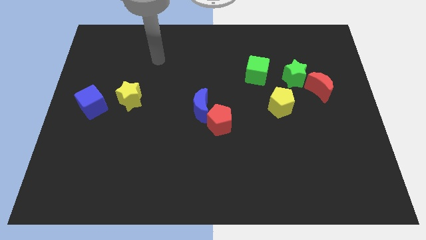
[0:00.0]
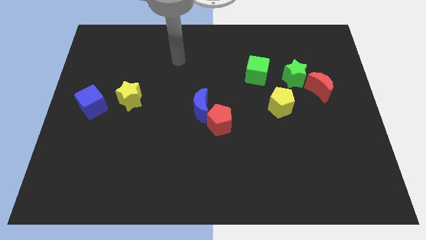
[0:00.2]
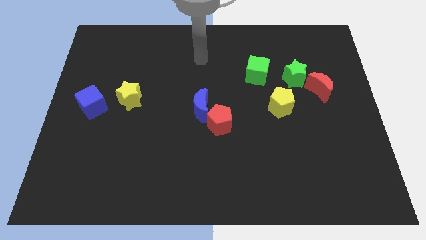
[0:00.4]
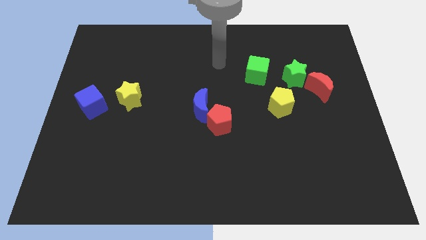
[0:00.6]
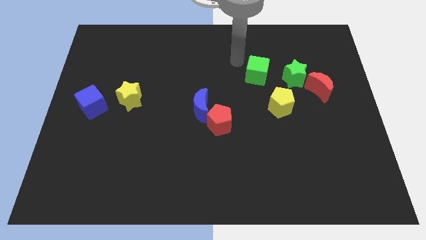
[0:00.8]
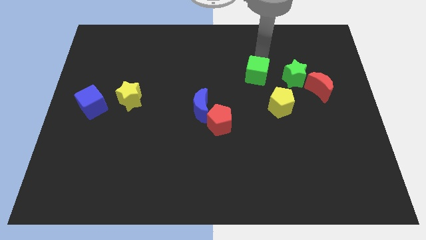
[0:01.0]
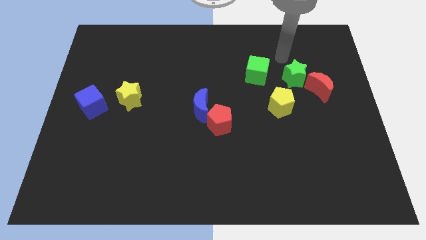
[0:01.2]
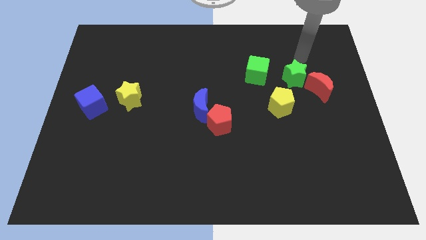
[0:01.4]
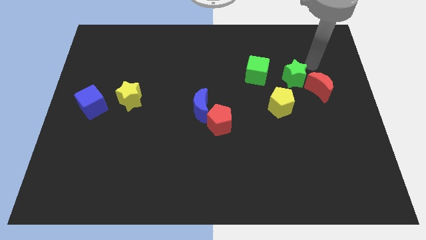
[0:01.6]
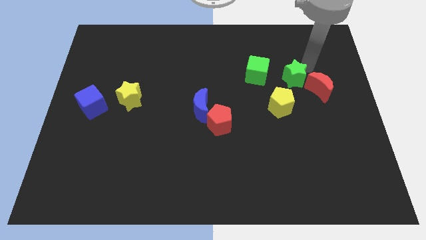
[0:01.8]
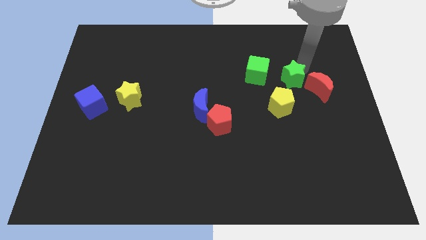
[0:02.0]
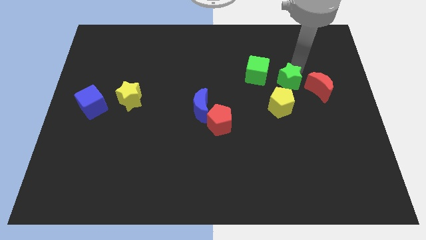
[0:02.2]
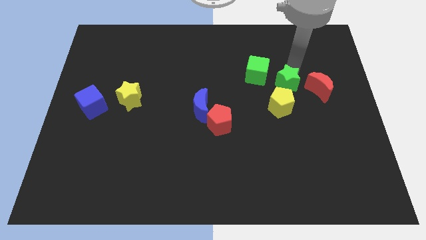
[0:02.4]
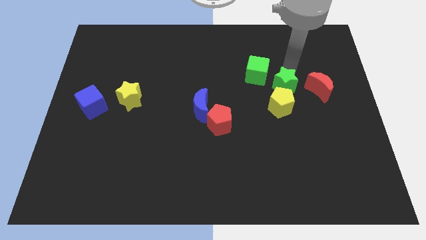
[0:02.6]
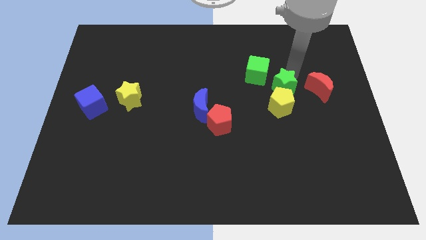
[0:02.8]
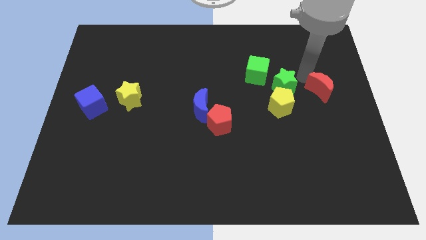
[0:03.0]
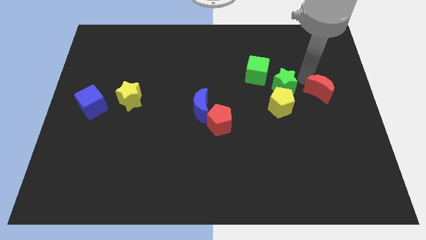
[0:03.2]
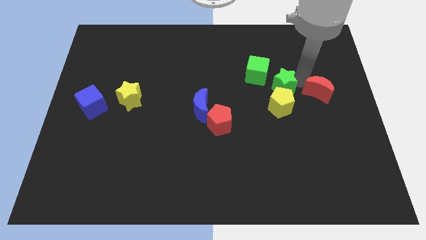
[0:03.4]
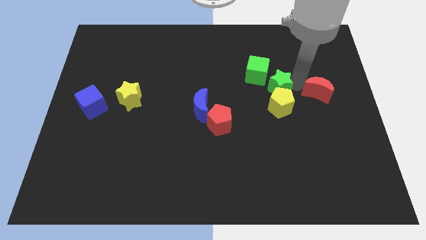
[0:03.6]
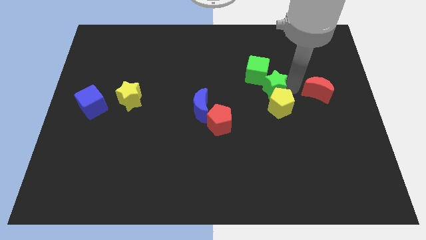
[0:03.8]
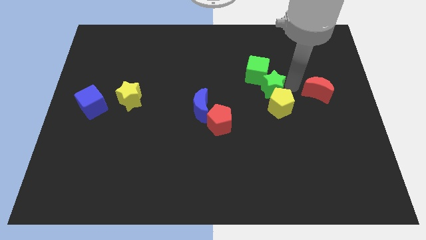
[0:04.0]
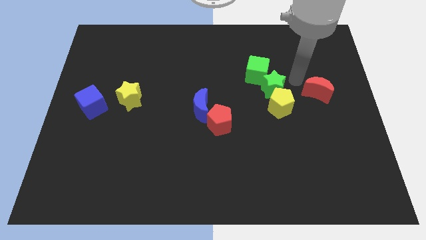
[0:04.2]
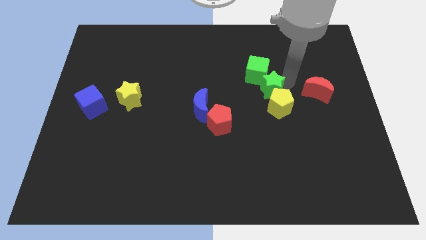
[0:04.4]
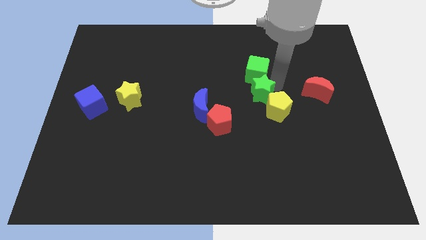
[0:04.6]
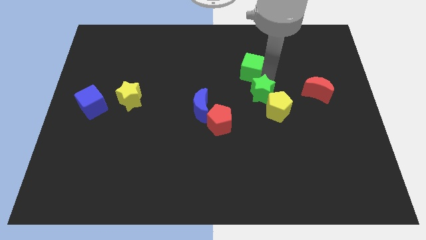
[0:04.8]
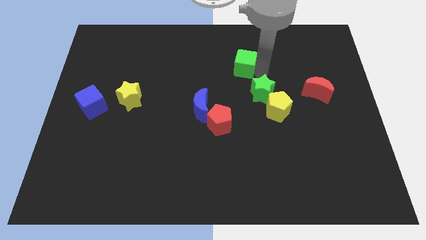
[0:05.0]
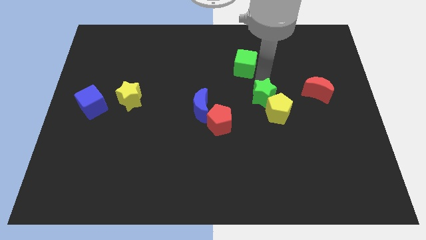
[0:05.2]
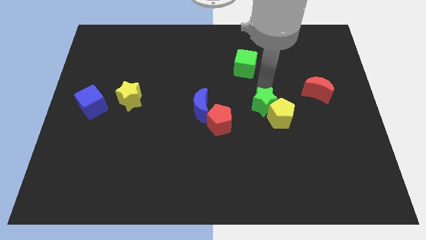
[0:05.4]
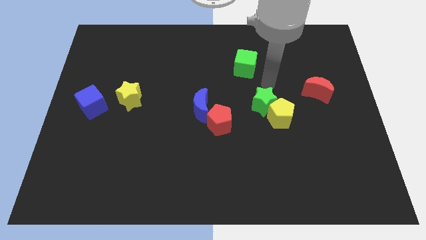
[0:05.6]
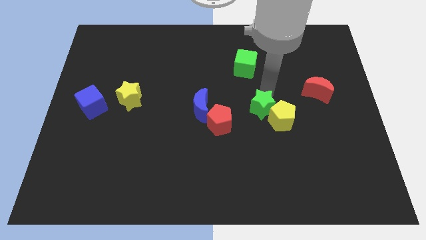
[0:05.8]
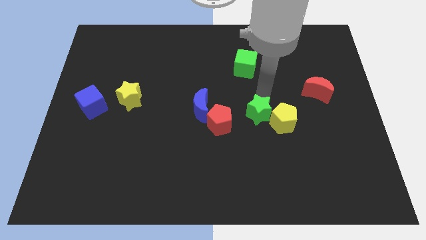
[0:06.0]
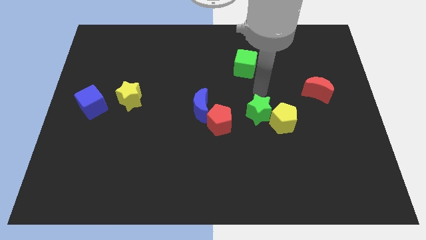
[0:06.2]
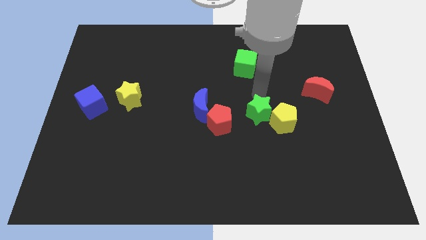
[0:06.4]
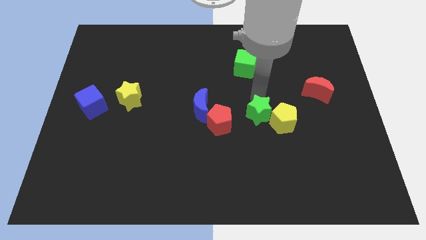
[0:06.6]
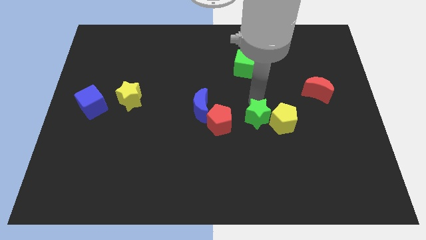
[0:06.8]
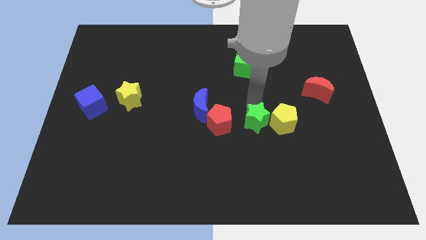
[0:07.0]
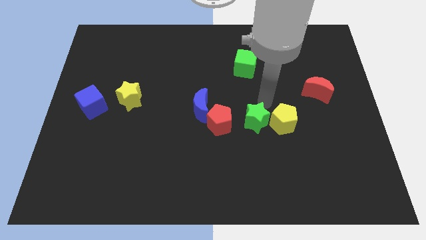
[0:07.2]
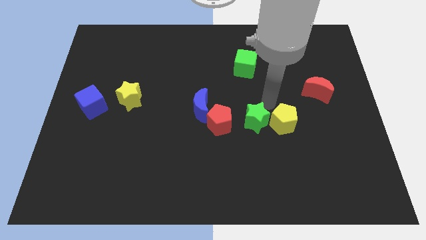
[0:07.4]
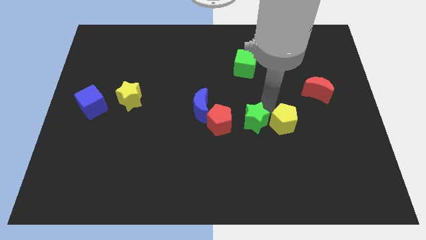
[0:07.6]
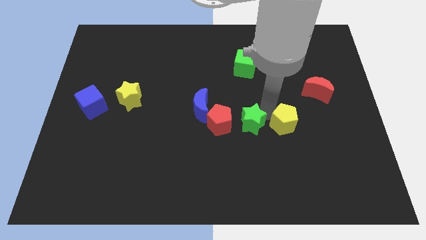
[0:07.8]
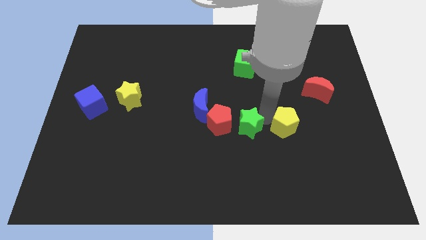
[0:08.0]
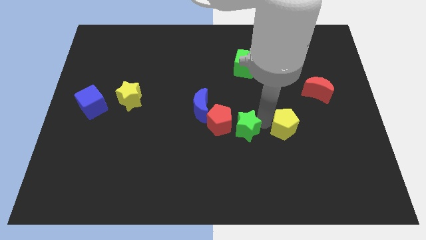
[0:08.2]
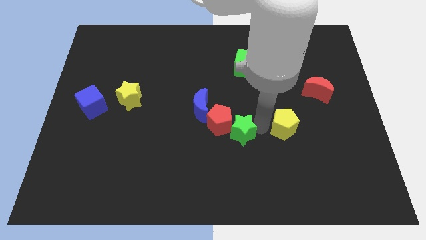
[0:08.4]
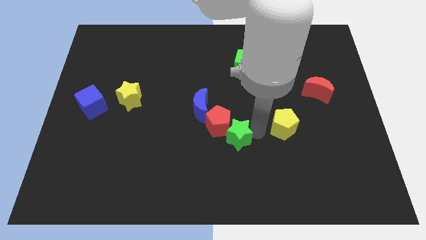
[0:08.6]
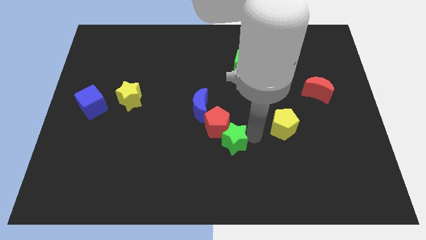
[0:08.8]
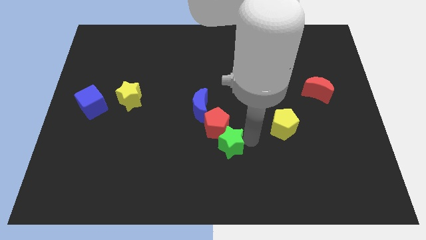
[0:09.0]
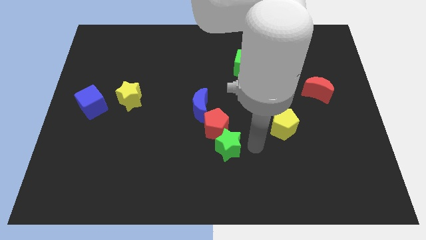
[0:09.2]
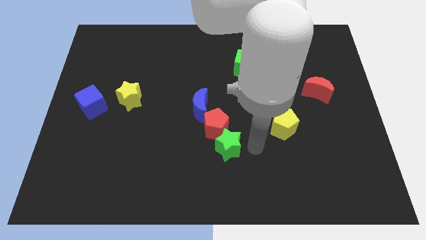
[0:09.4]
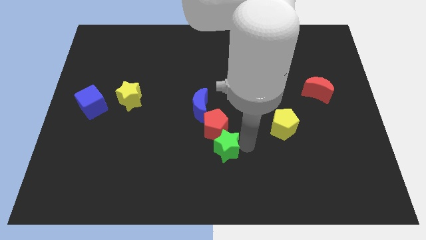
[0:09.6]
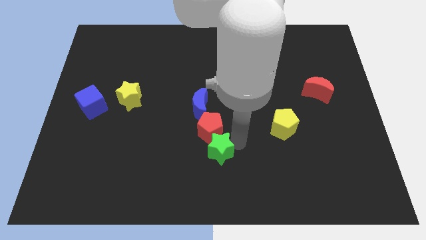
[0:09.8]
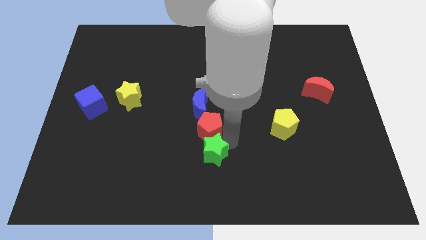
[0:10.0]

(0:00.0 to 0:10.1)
slide the green star diagonally down and to the left of the red pentagon

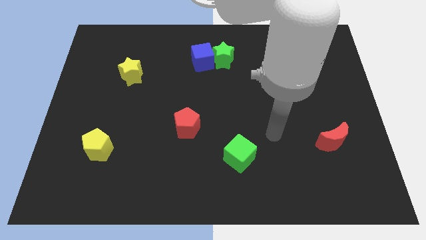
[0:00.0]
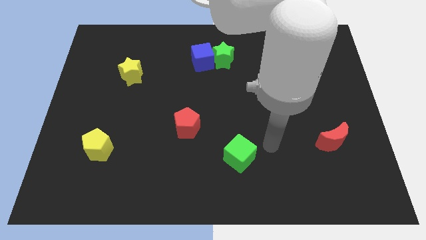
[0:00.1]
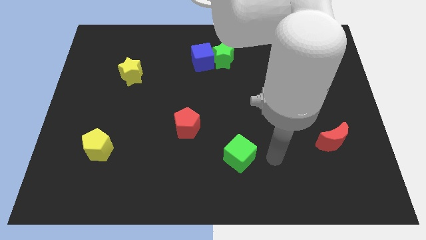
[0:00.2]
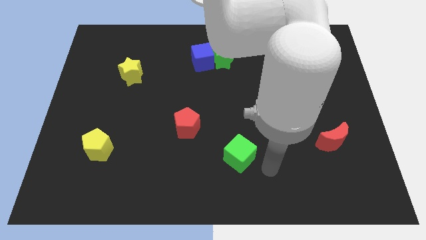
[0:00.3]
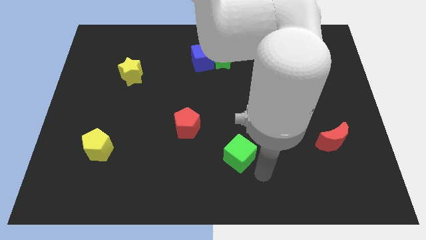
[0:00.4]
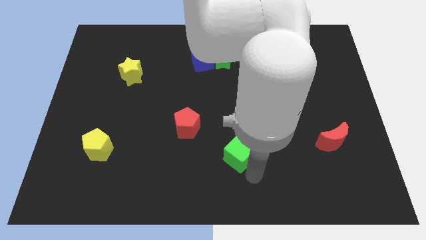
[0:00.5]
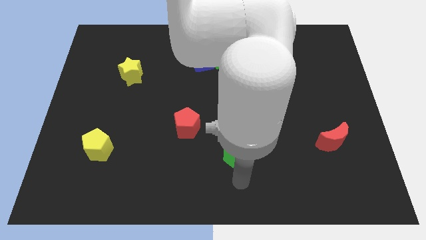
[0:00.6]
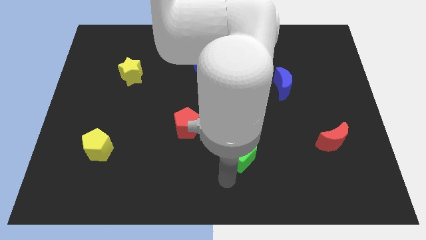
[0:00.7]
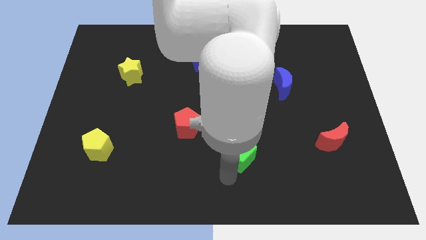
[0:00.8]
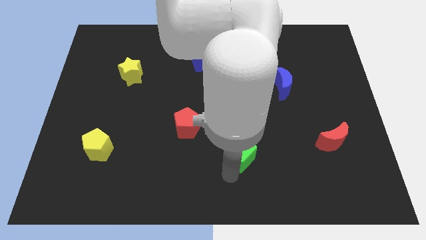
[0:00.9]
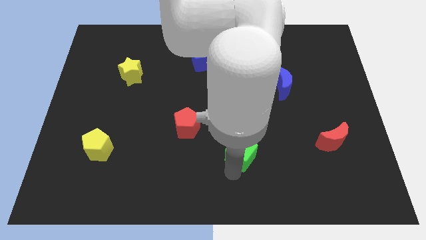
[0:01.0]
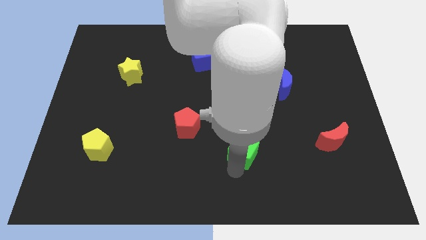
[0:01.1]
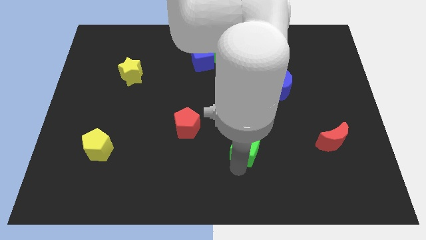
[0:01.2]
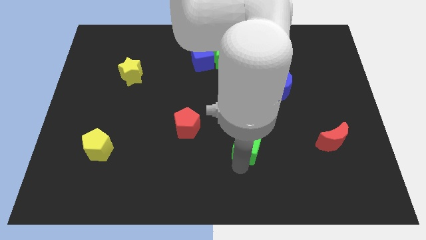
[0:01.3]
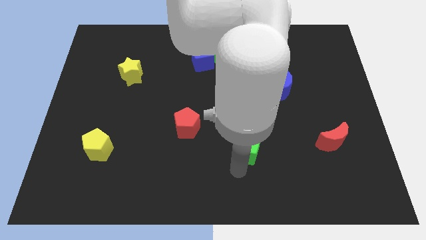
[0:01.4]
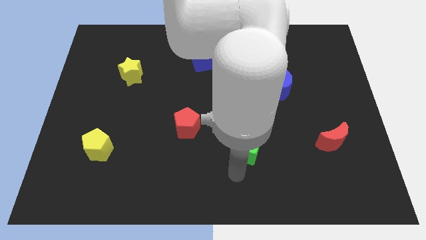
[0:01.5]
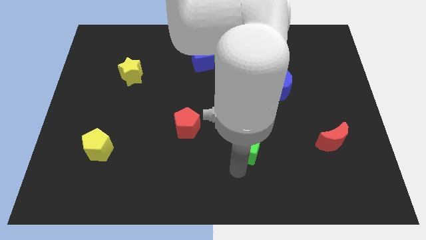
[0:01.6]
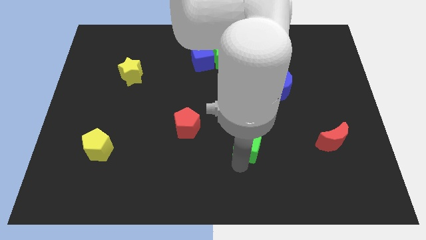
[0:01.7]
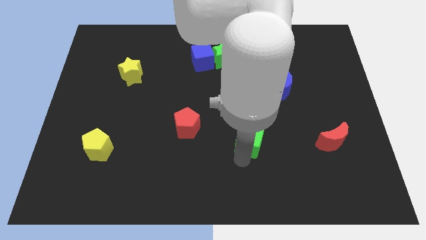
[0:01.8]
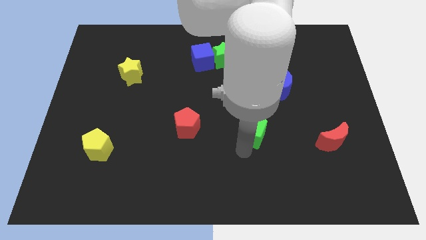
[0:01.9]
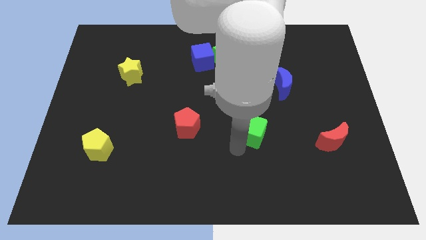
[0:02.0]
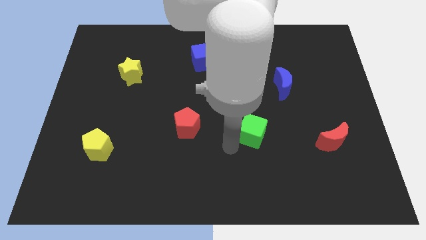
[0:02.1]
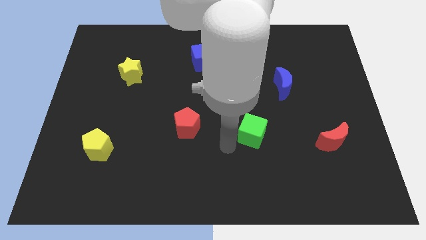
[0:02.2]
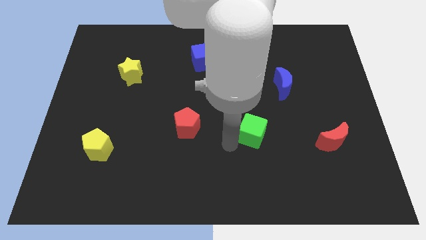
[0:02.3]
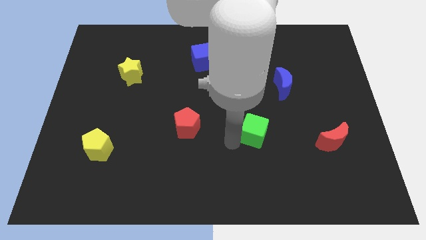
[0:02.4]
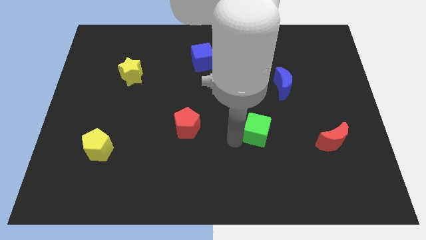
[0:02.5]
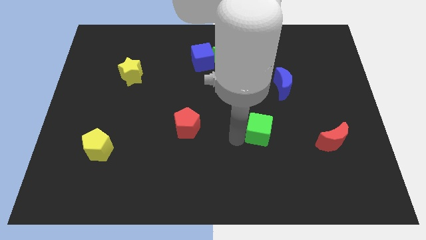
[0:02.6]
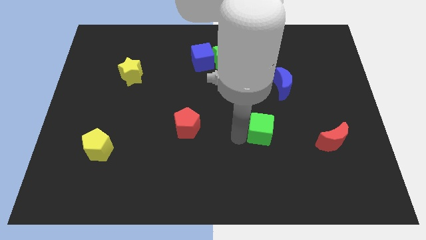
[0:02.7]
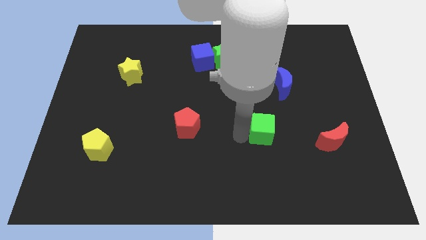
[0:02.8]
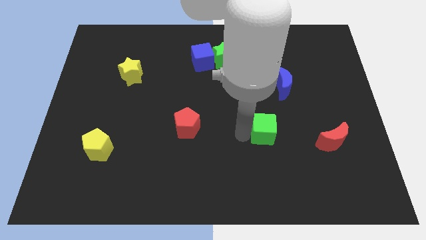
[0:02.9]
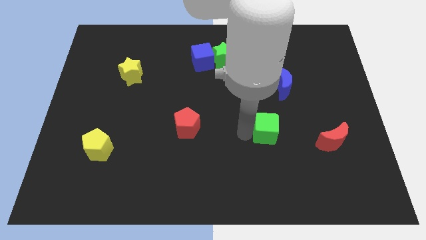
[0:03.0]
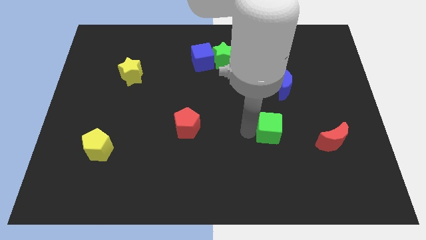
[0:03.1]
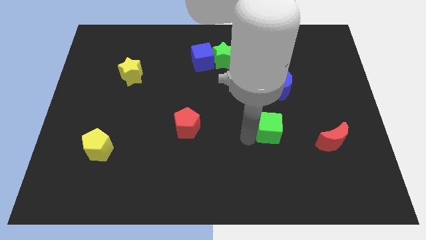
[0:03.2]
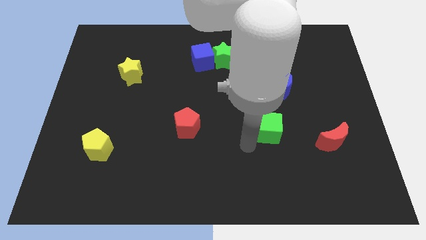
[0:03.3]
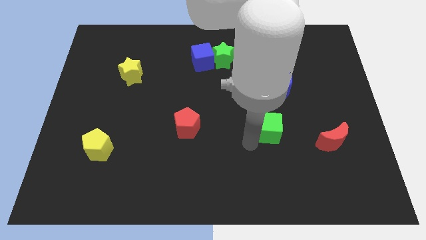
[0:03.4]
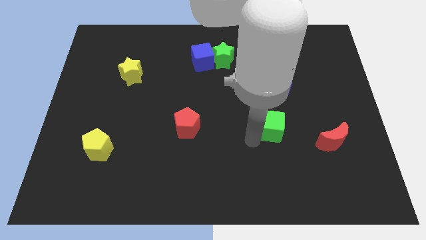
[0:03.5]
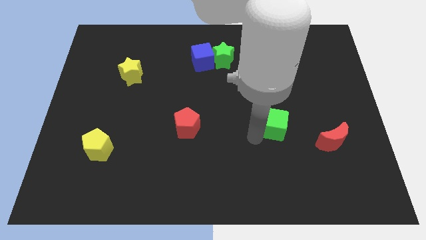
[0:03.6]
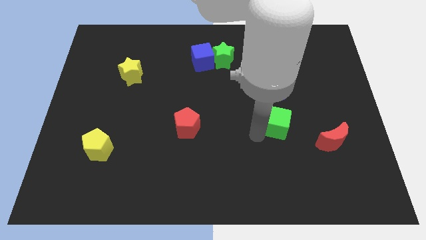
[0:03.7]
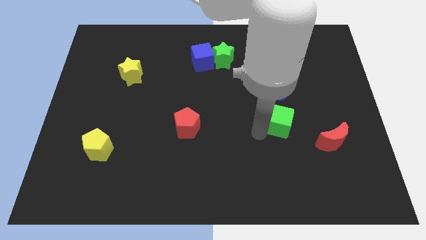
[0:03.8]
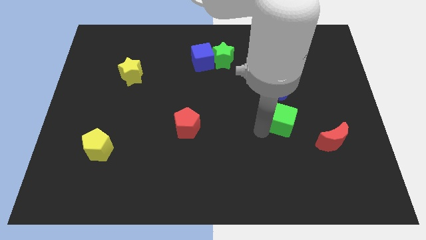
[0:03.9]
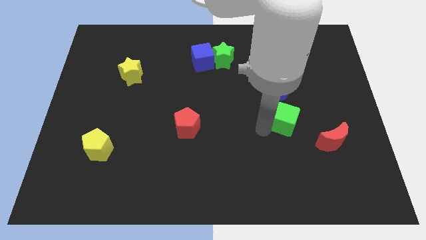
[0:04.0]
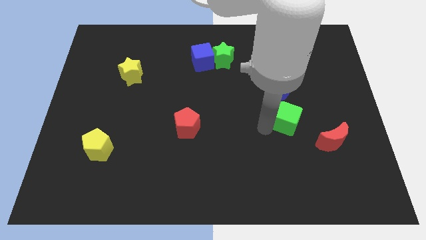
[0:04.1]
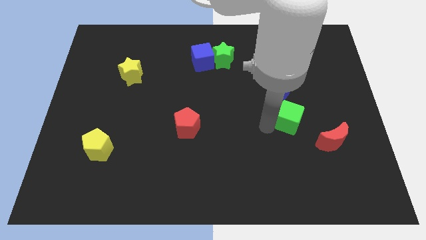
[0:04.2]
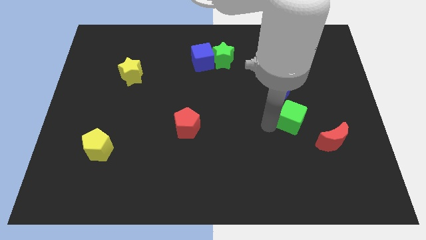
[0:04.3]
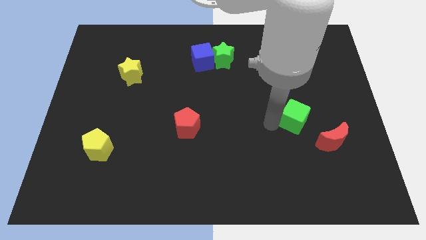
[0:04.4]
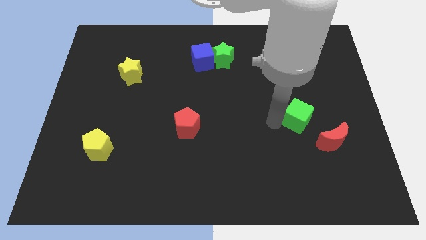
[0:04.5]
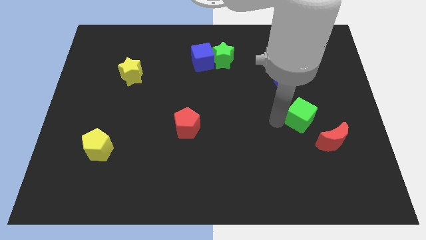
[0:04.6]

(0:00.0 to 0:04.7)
move the green cube to the bottom right of the blue moon
